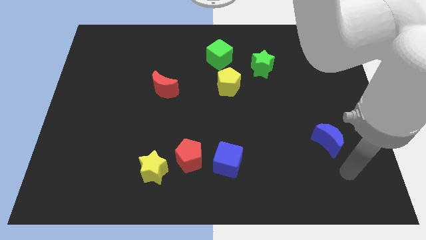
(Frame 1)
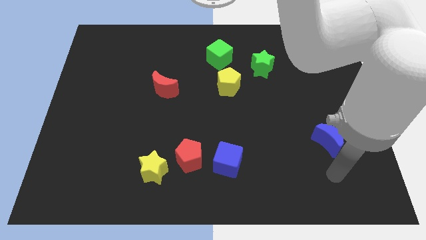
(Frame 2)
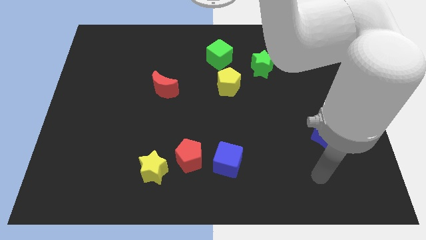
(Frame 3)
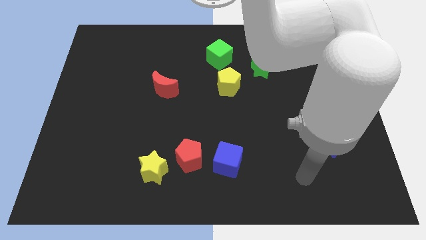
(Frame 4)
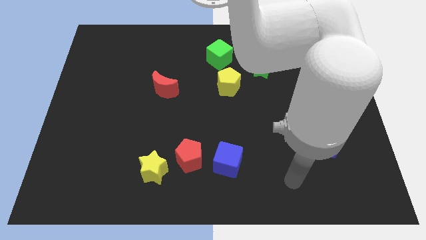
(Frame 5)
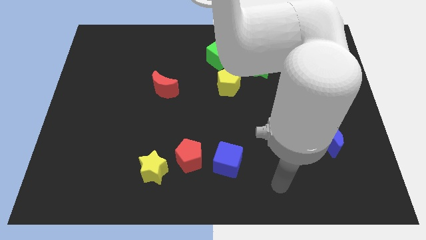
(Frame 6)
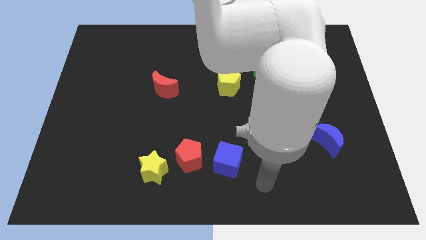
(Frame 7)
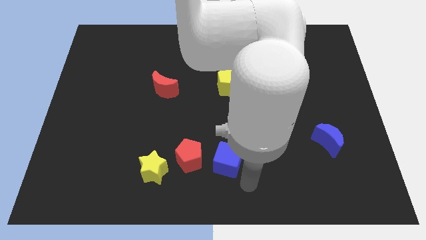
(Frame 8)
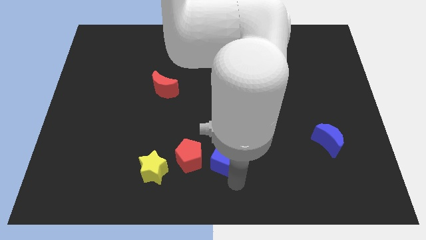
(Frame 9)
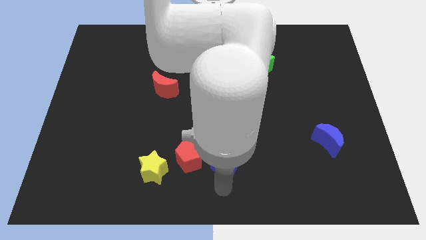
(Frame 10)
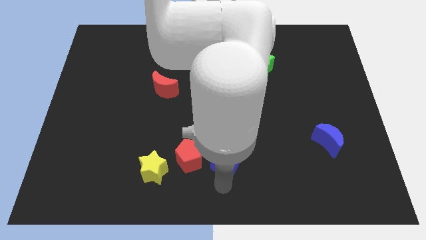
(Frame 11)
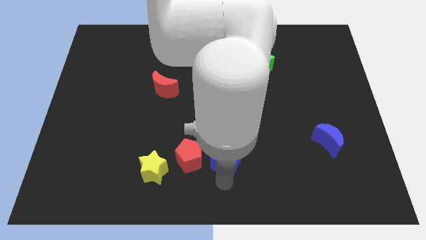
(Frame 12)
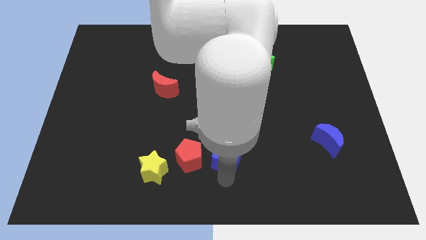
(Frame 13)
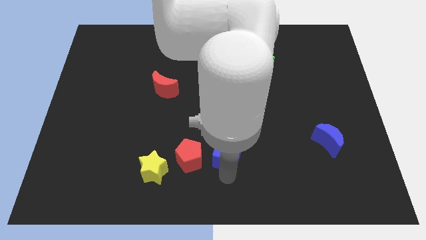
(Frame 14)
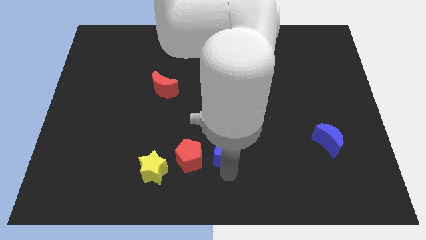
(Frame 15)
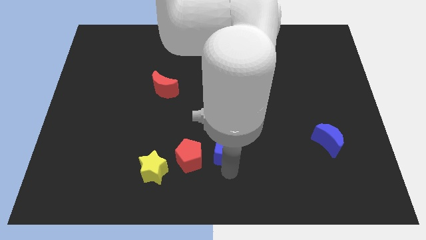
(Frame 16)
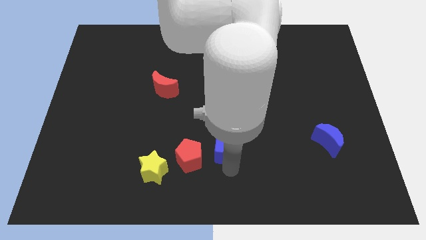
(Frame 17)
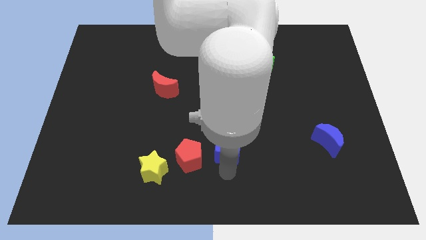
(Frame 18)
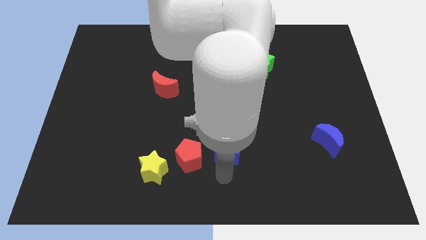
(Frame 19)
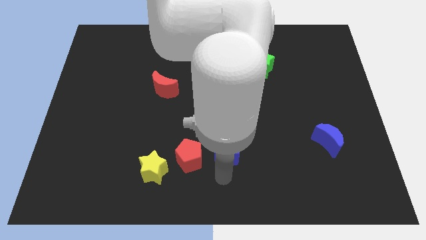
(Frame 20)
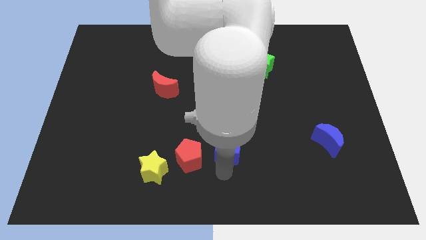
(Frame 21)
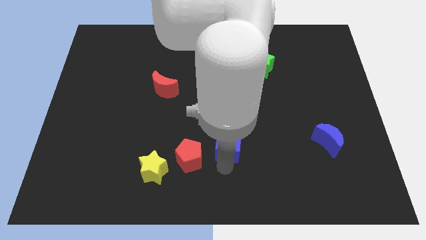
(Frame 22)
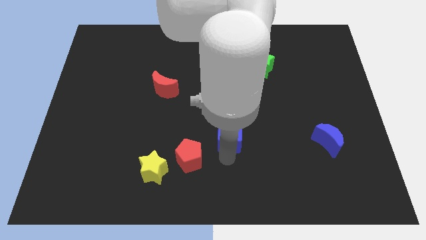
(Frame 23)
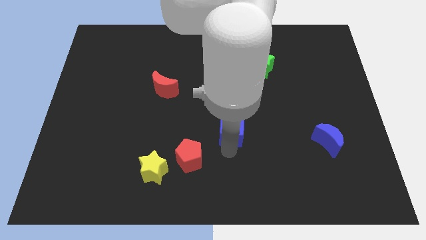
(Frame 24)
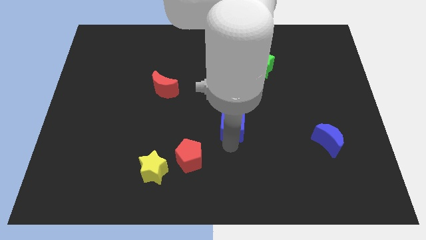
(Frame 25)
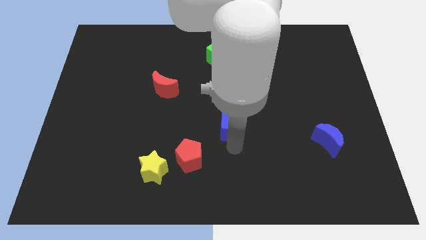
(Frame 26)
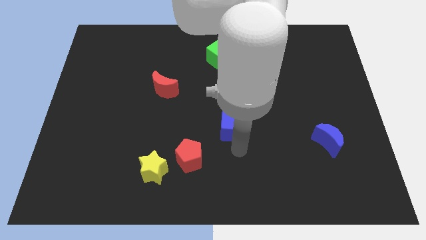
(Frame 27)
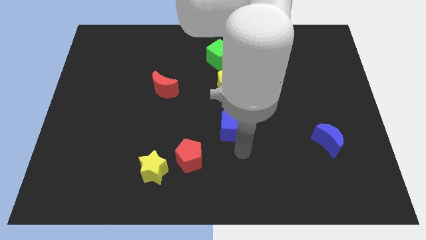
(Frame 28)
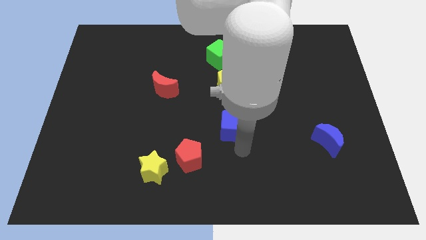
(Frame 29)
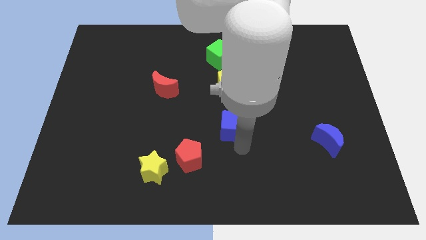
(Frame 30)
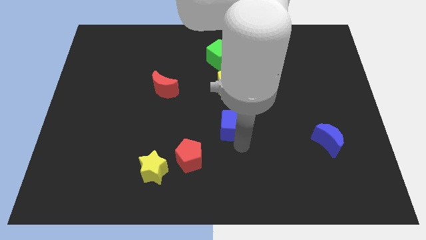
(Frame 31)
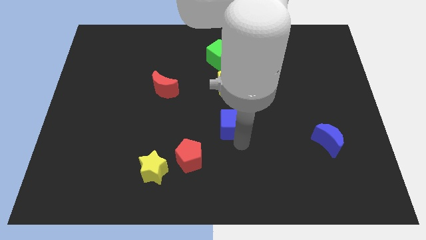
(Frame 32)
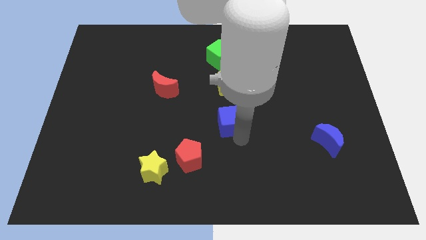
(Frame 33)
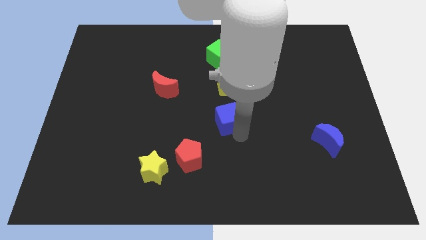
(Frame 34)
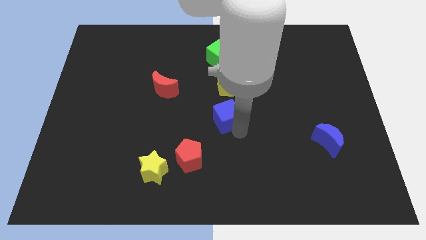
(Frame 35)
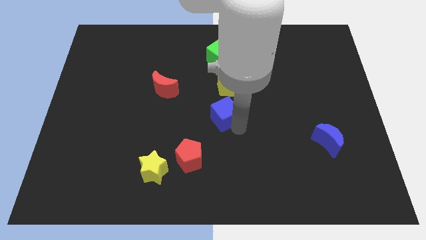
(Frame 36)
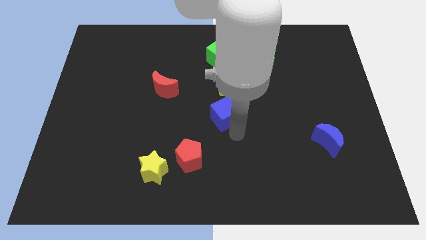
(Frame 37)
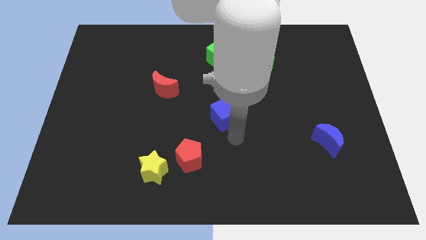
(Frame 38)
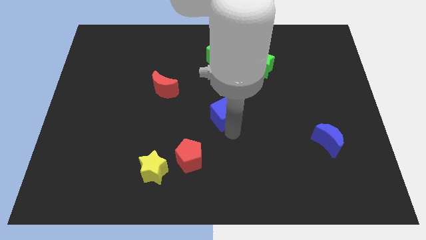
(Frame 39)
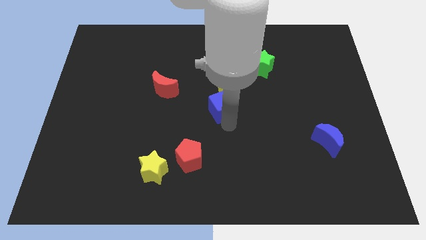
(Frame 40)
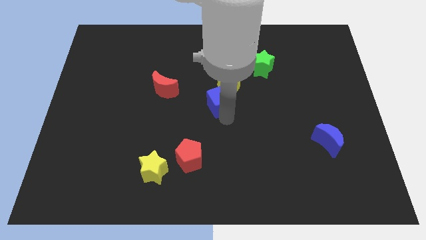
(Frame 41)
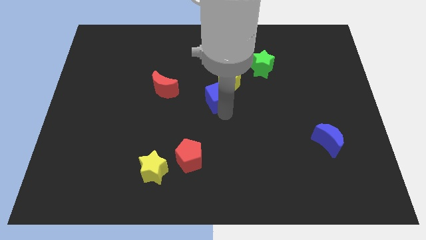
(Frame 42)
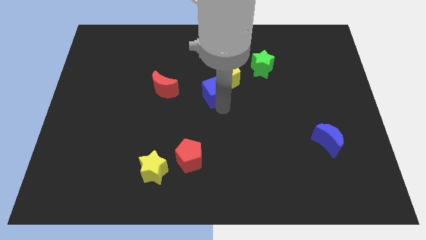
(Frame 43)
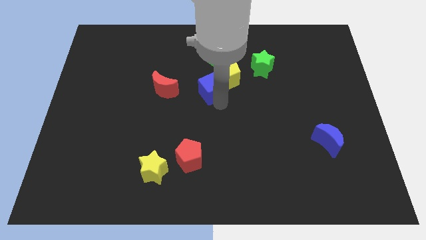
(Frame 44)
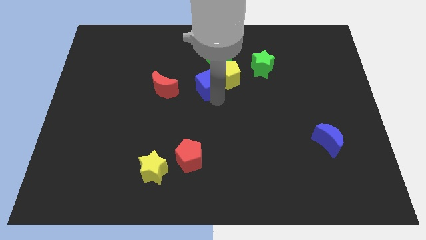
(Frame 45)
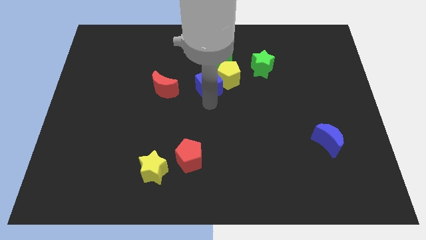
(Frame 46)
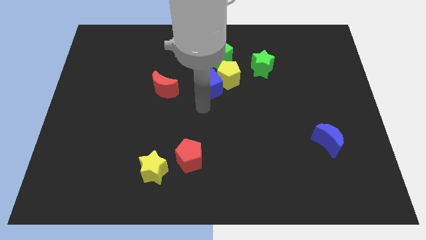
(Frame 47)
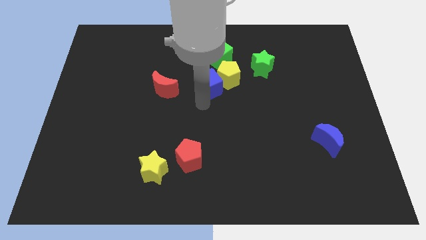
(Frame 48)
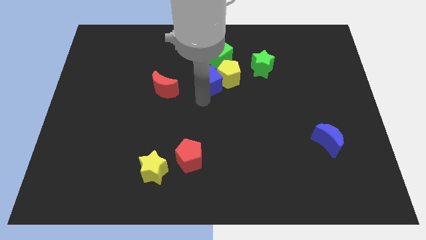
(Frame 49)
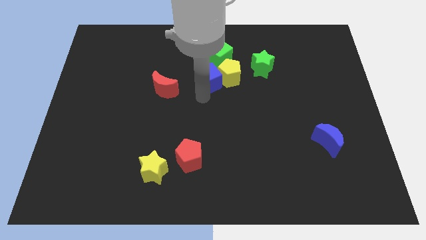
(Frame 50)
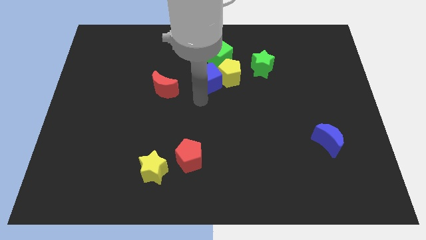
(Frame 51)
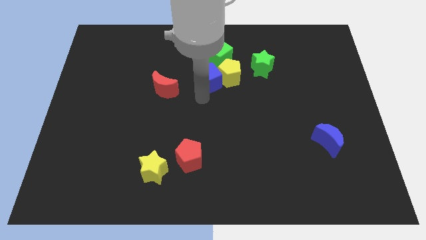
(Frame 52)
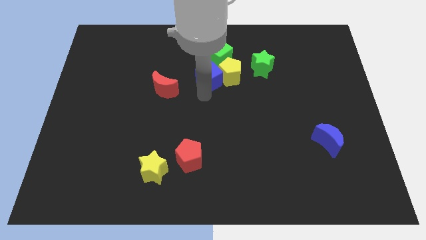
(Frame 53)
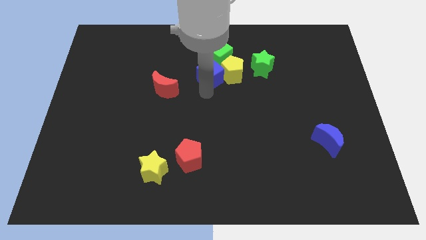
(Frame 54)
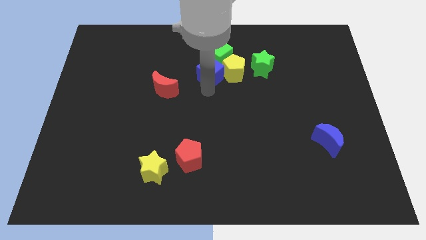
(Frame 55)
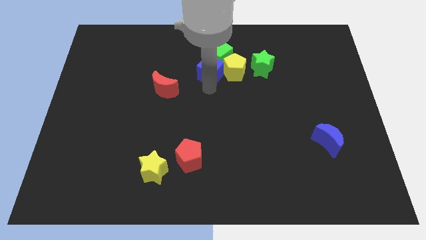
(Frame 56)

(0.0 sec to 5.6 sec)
slide the blue cube next to the green cube

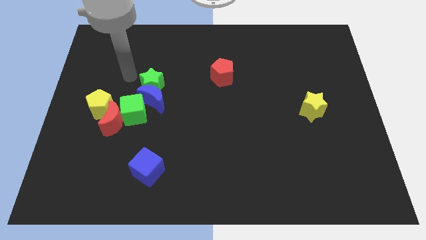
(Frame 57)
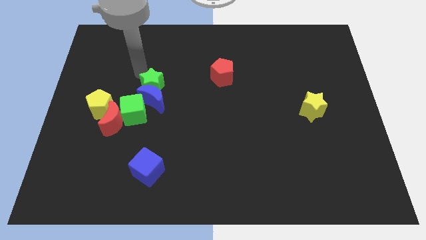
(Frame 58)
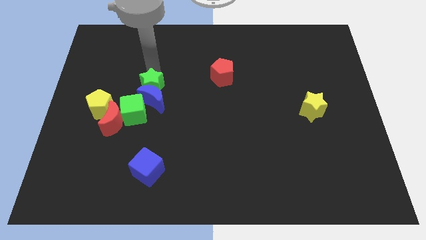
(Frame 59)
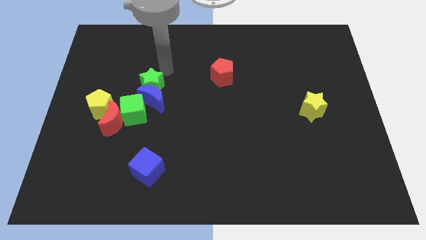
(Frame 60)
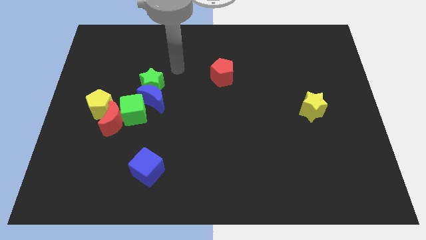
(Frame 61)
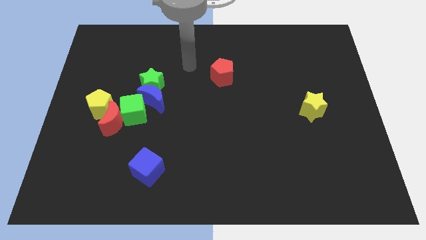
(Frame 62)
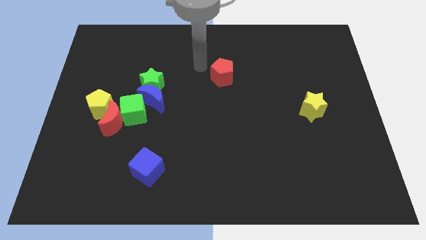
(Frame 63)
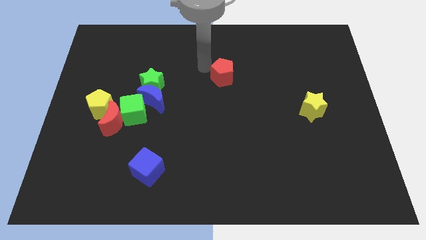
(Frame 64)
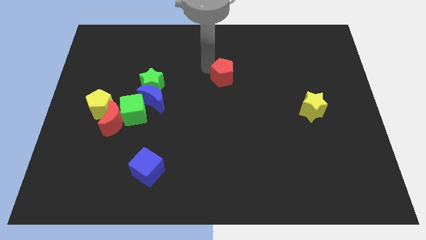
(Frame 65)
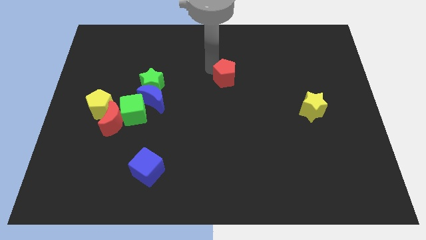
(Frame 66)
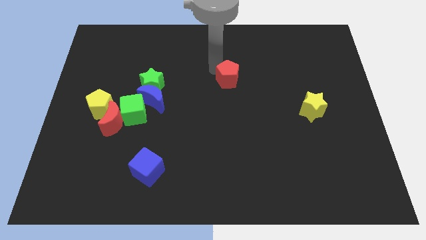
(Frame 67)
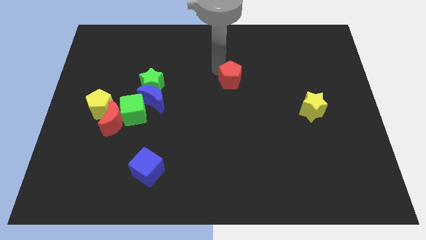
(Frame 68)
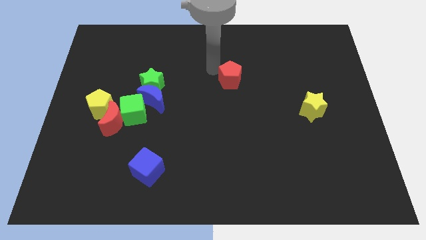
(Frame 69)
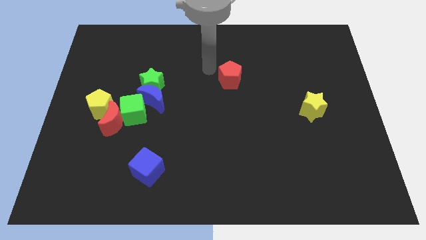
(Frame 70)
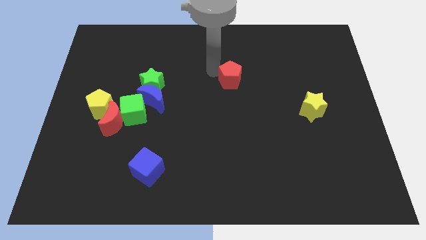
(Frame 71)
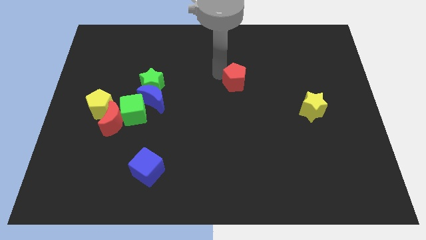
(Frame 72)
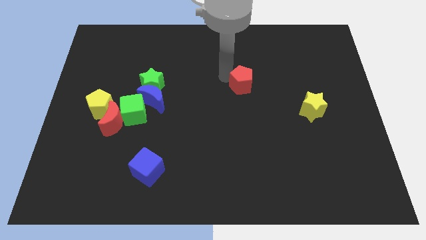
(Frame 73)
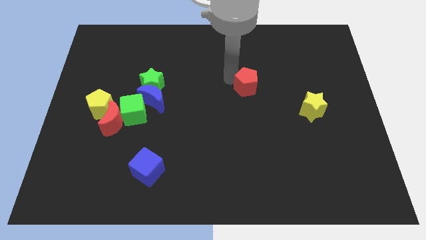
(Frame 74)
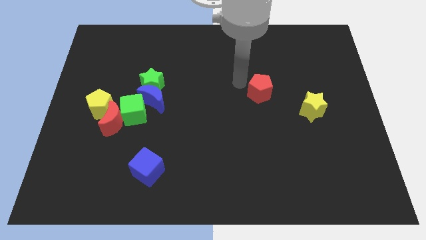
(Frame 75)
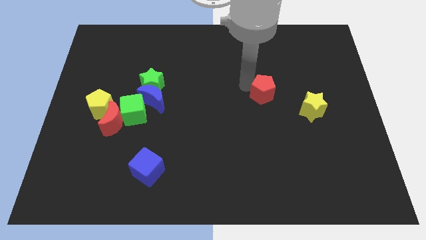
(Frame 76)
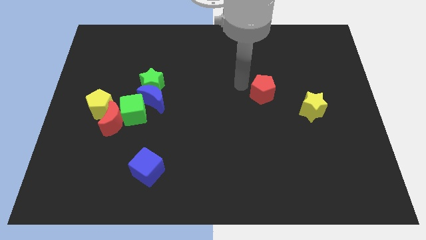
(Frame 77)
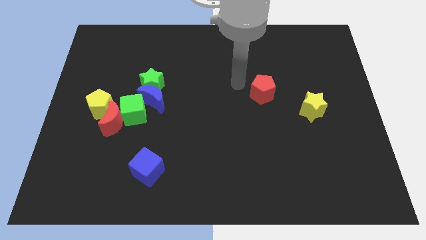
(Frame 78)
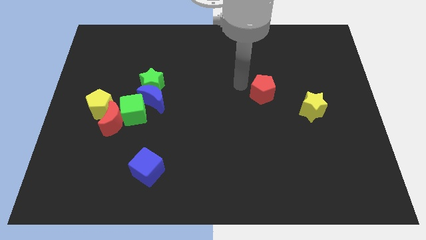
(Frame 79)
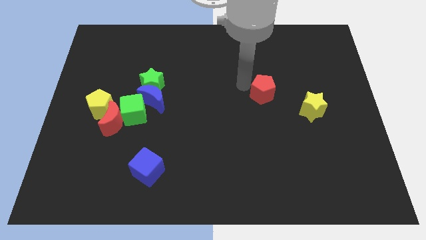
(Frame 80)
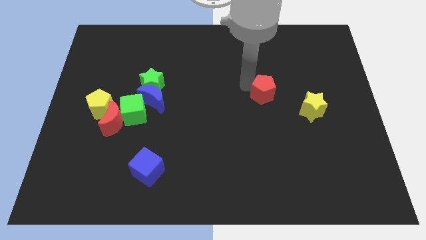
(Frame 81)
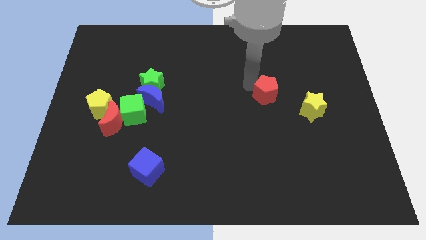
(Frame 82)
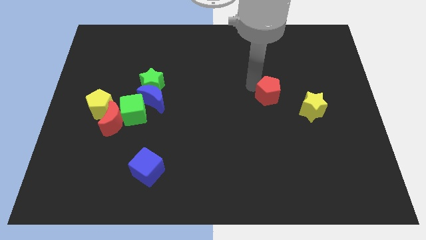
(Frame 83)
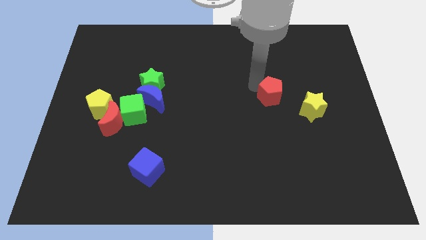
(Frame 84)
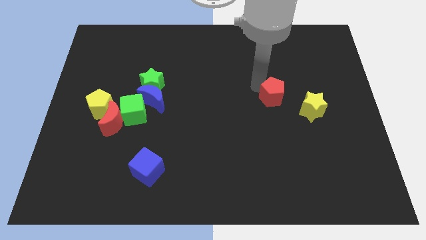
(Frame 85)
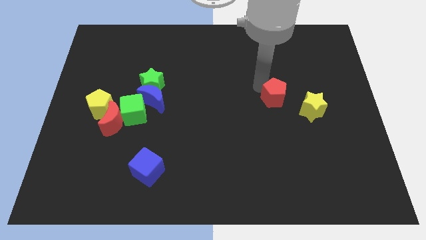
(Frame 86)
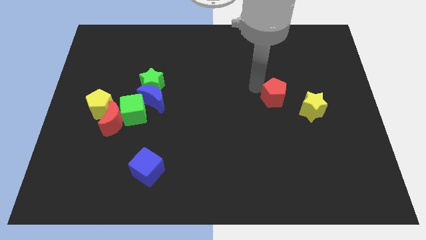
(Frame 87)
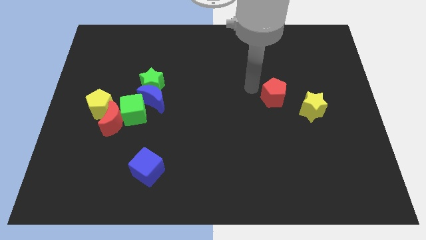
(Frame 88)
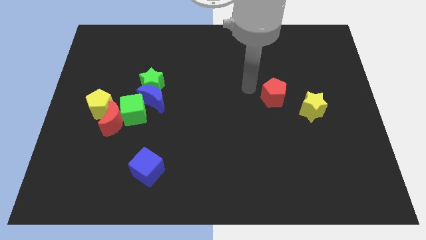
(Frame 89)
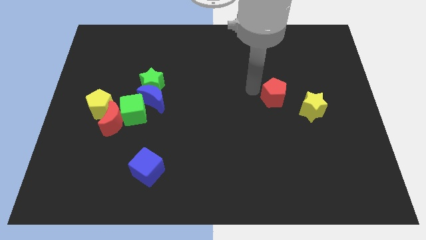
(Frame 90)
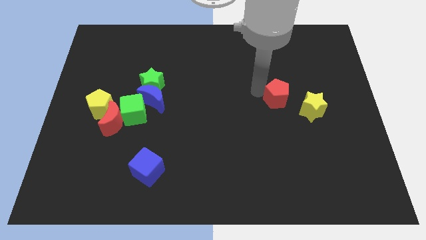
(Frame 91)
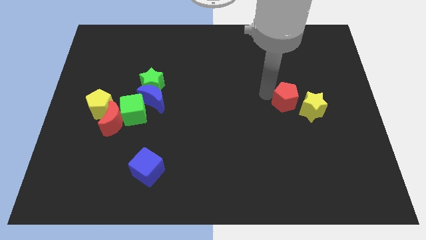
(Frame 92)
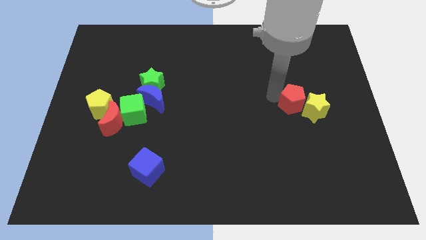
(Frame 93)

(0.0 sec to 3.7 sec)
push the red pentagon close to the yellow star
